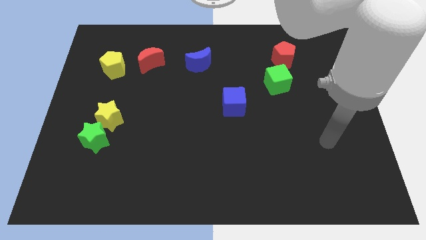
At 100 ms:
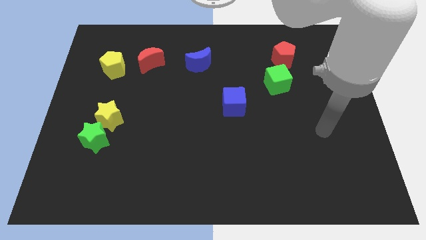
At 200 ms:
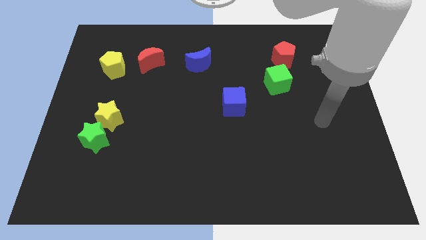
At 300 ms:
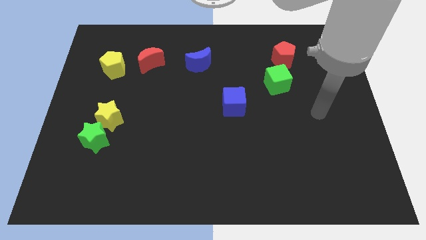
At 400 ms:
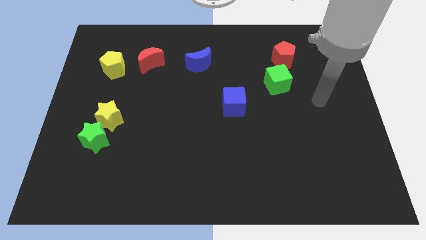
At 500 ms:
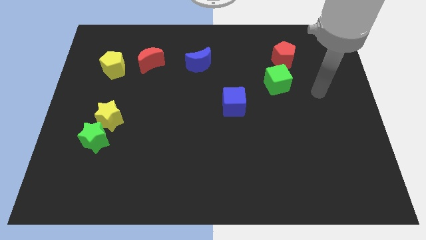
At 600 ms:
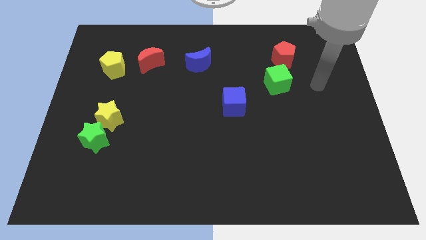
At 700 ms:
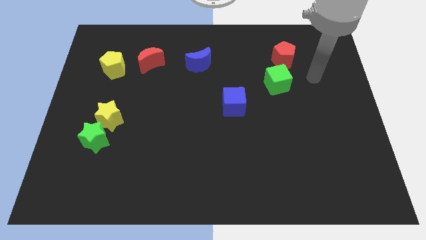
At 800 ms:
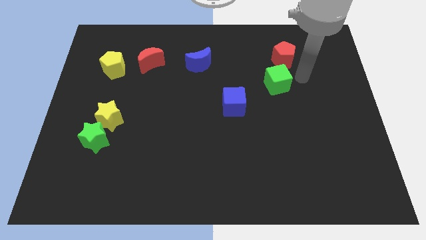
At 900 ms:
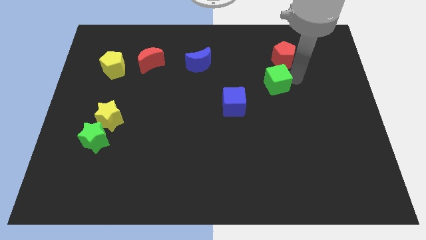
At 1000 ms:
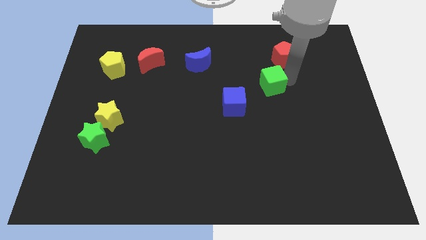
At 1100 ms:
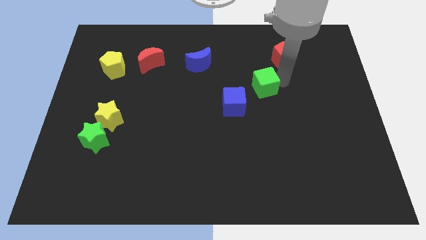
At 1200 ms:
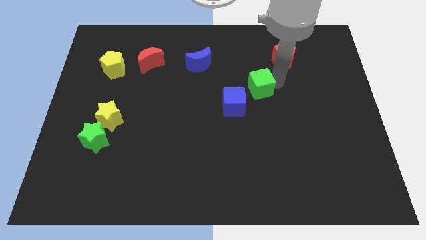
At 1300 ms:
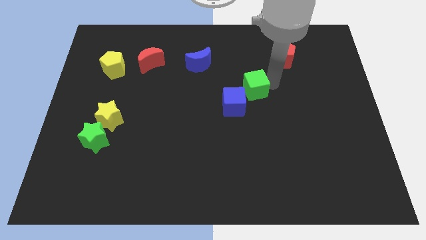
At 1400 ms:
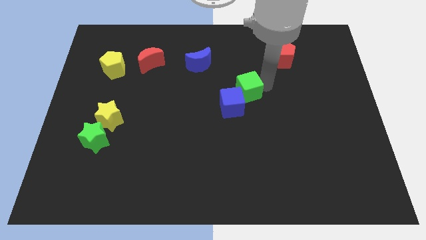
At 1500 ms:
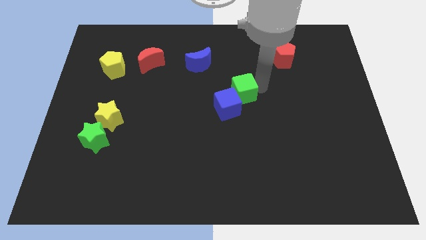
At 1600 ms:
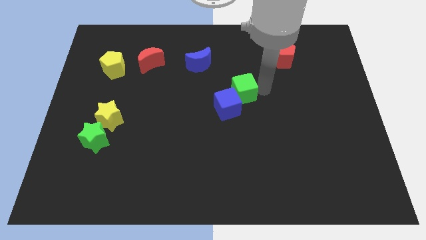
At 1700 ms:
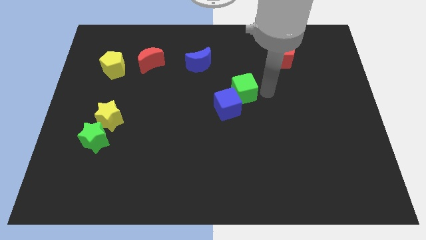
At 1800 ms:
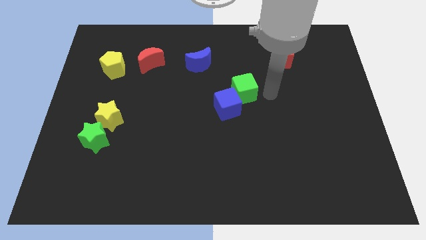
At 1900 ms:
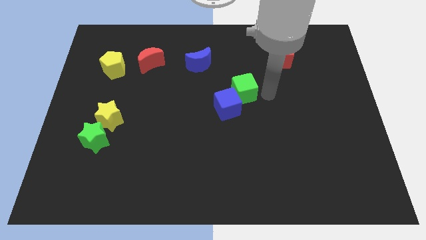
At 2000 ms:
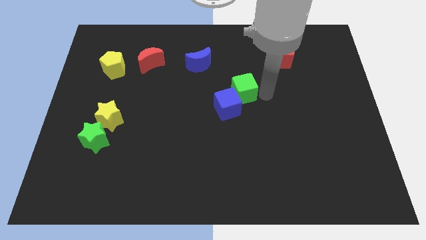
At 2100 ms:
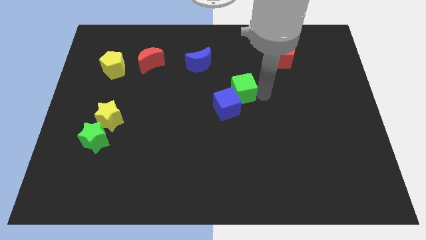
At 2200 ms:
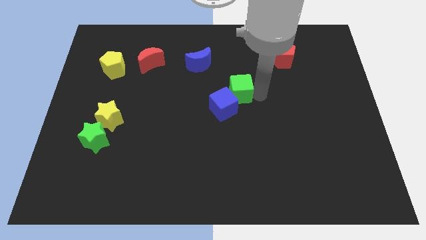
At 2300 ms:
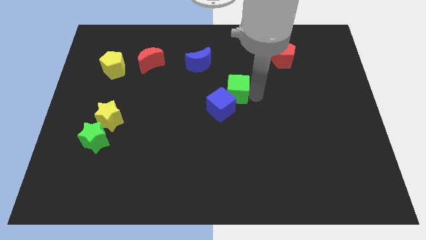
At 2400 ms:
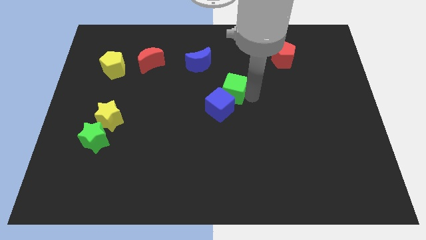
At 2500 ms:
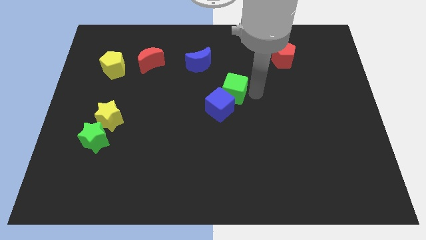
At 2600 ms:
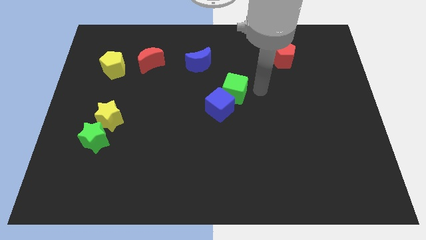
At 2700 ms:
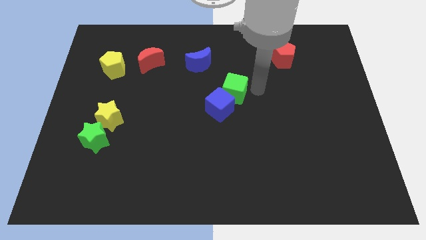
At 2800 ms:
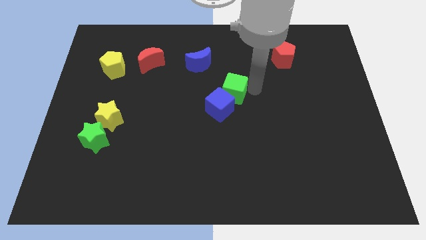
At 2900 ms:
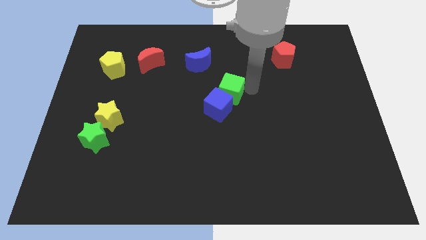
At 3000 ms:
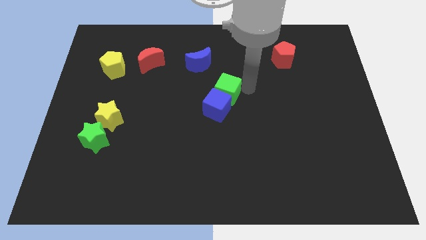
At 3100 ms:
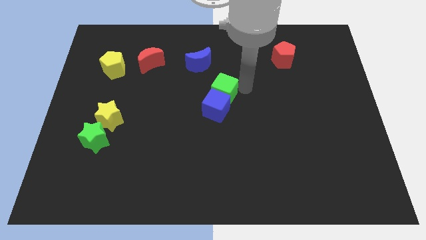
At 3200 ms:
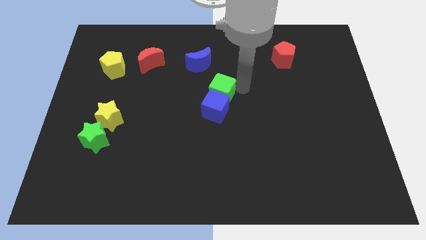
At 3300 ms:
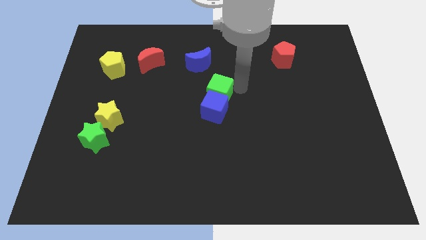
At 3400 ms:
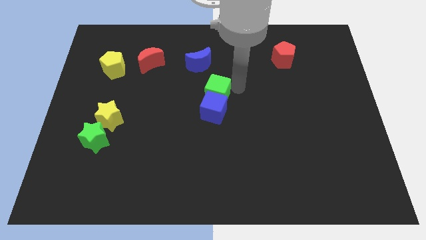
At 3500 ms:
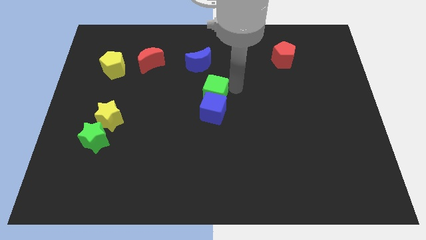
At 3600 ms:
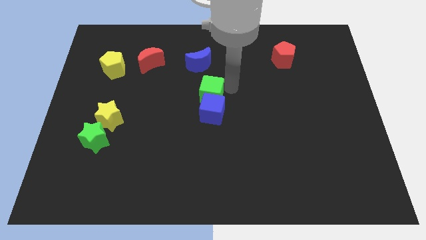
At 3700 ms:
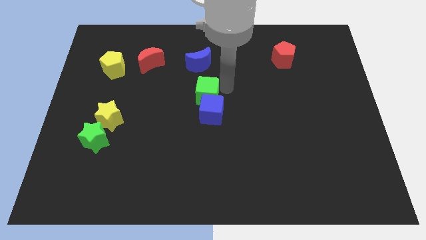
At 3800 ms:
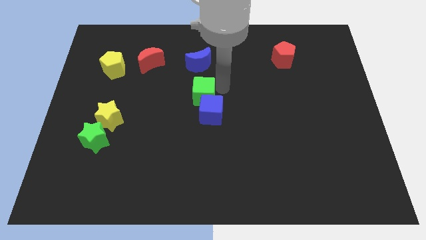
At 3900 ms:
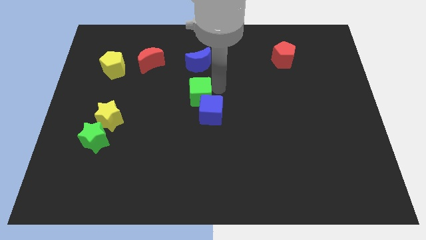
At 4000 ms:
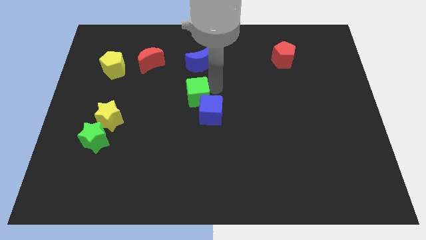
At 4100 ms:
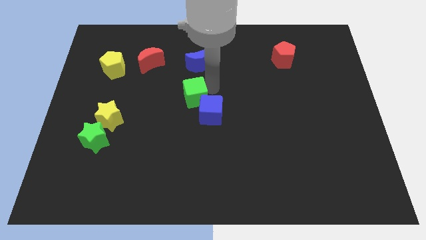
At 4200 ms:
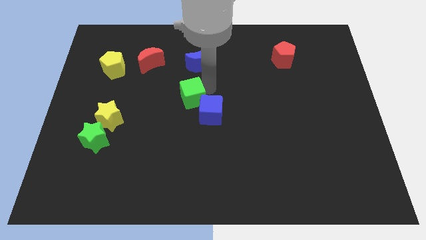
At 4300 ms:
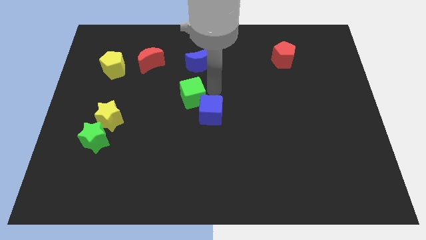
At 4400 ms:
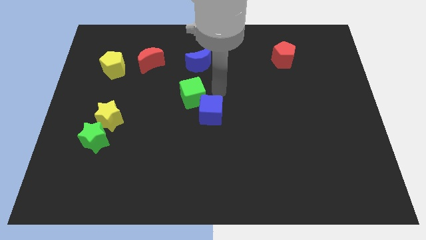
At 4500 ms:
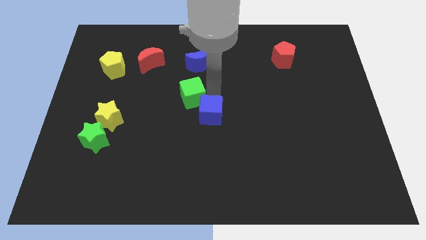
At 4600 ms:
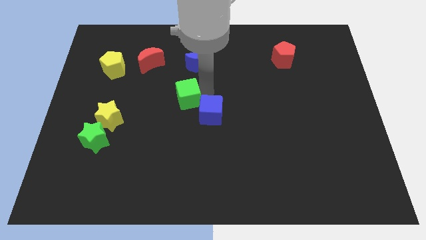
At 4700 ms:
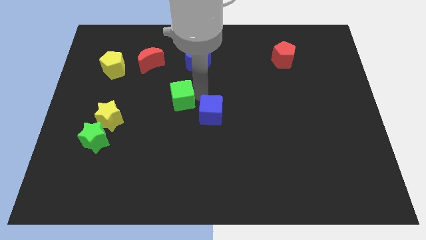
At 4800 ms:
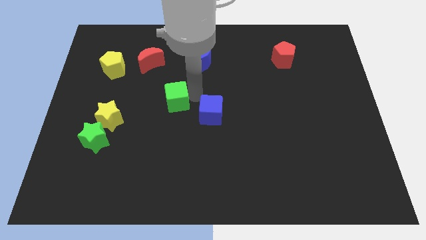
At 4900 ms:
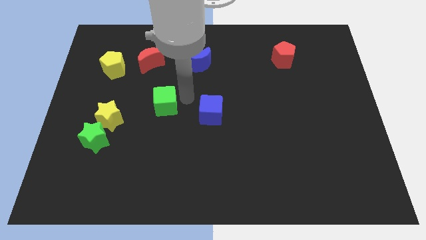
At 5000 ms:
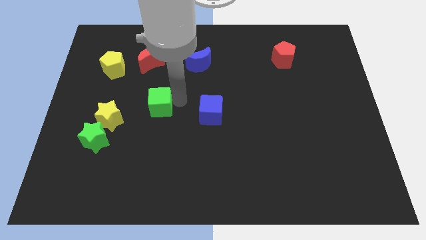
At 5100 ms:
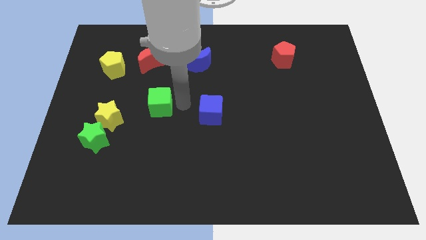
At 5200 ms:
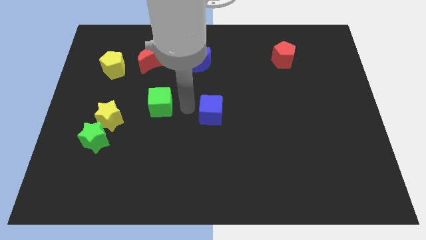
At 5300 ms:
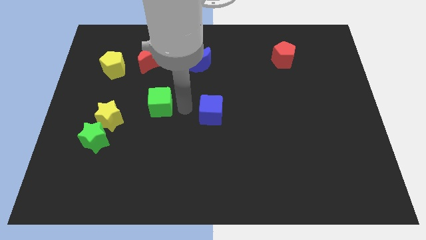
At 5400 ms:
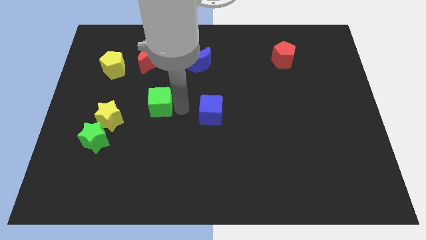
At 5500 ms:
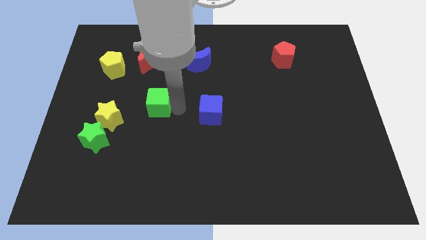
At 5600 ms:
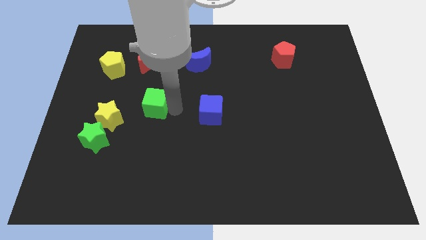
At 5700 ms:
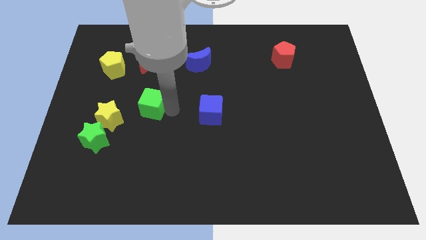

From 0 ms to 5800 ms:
move the green cube to the top right side of the yellow star
